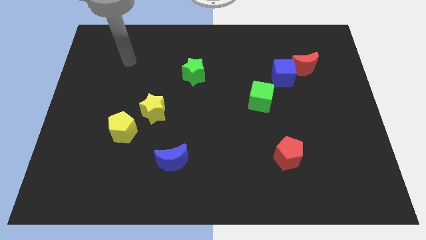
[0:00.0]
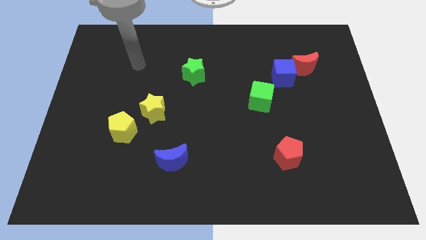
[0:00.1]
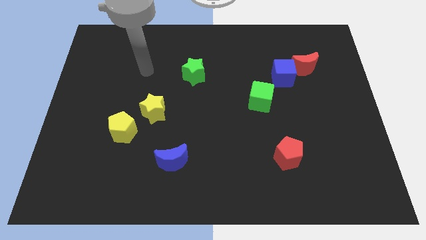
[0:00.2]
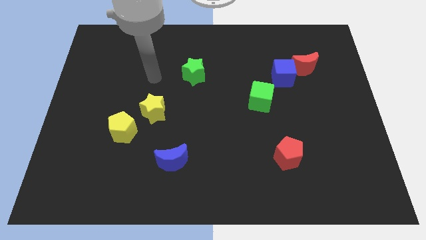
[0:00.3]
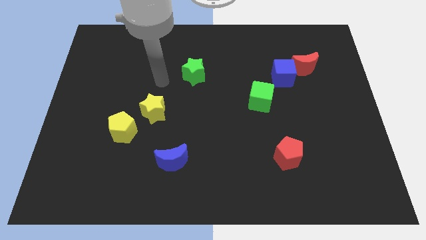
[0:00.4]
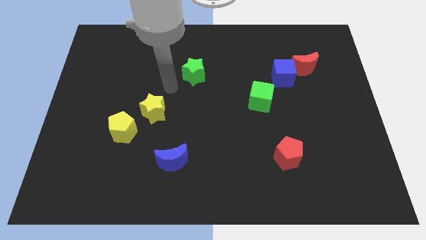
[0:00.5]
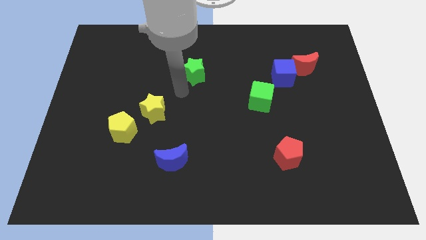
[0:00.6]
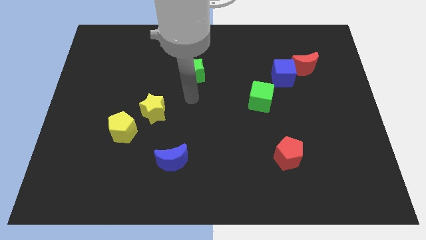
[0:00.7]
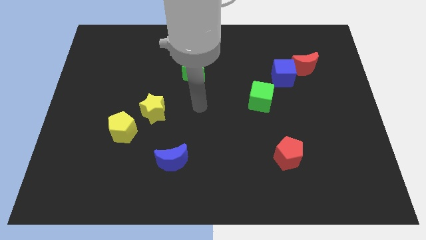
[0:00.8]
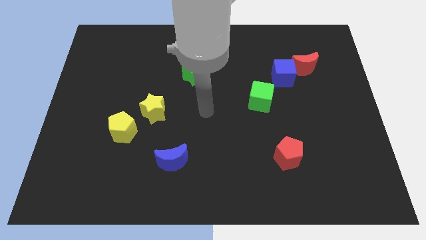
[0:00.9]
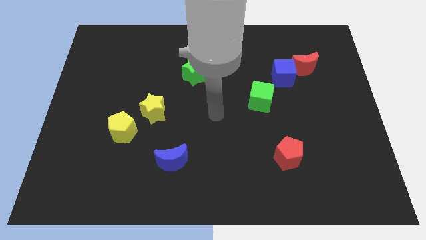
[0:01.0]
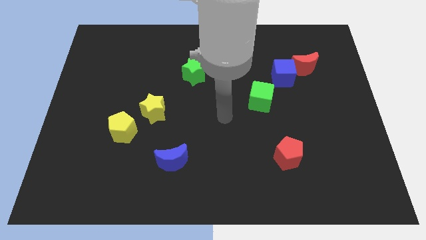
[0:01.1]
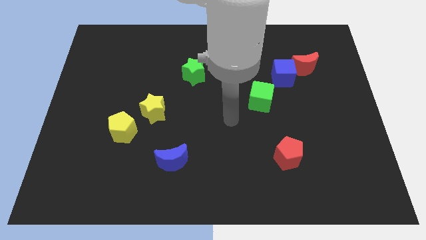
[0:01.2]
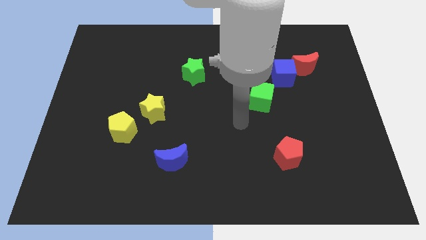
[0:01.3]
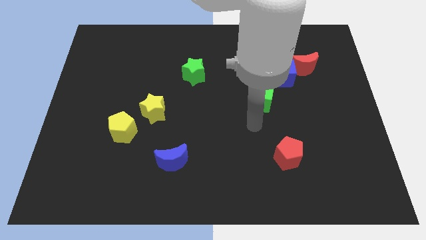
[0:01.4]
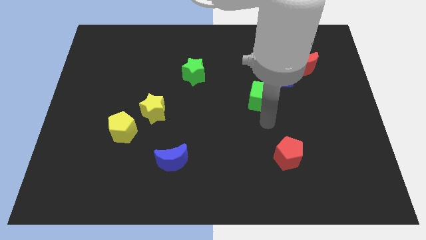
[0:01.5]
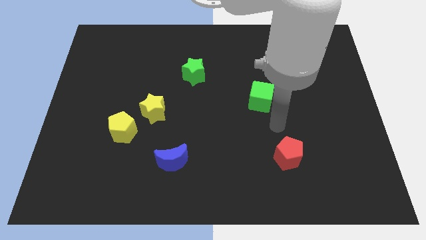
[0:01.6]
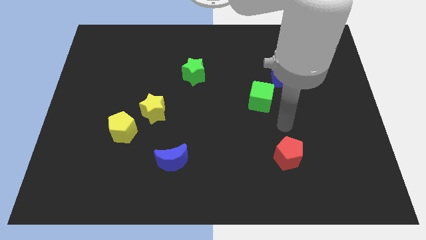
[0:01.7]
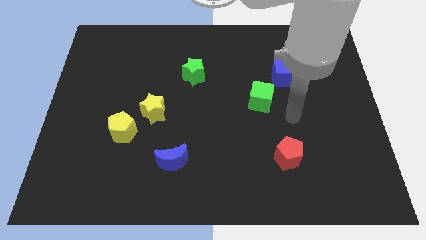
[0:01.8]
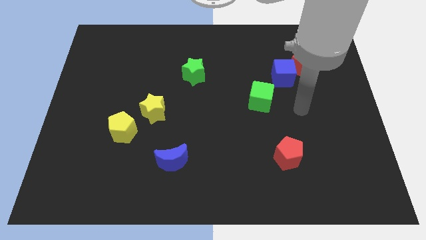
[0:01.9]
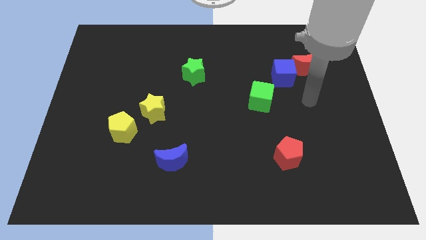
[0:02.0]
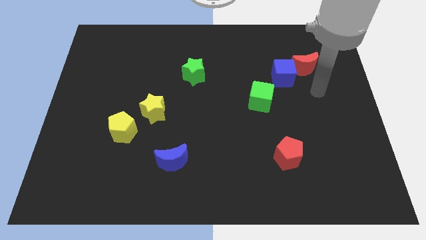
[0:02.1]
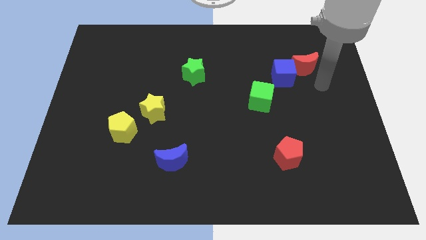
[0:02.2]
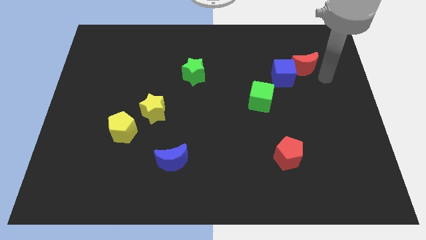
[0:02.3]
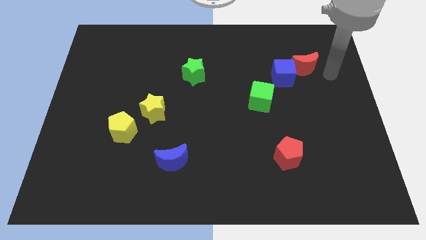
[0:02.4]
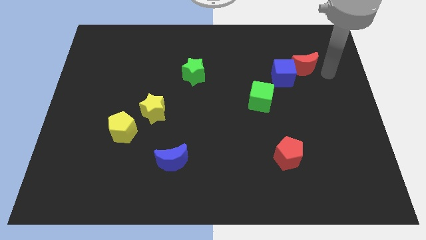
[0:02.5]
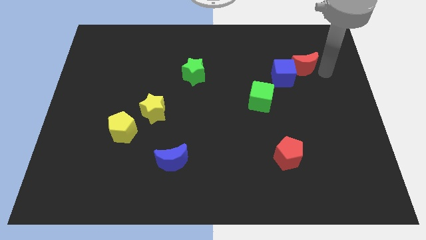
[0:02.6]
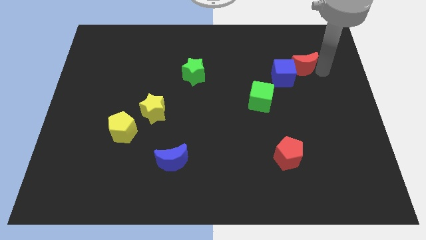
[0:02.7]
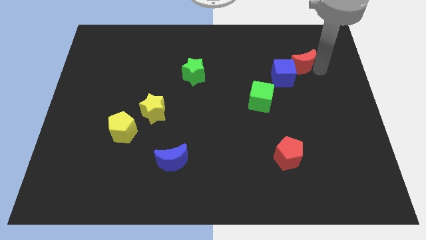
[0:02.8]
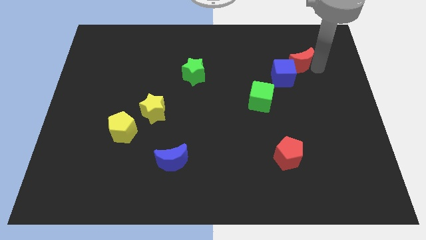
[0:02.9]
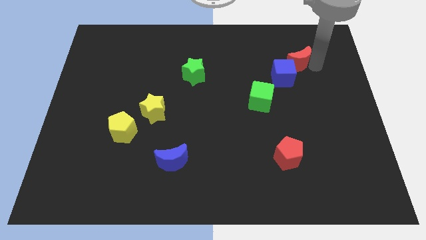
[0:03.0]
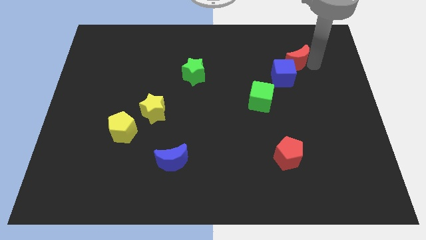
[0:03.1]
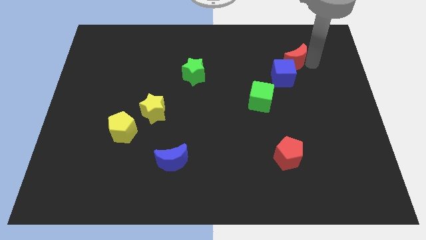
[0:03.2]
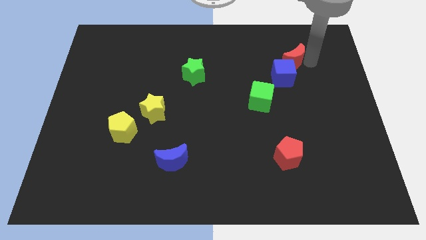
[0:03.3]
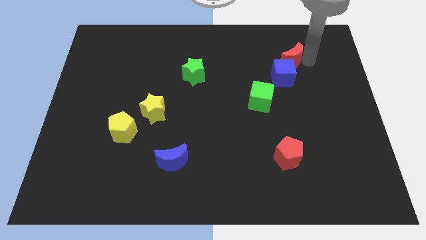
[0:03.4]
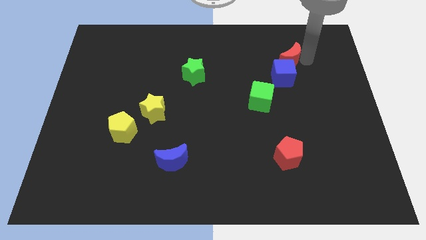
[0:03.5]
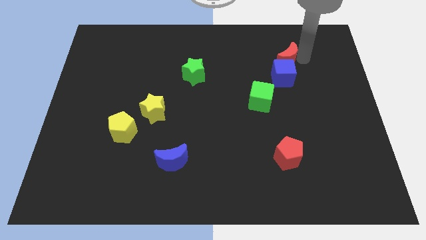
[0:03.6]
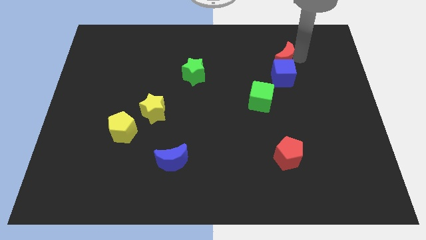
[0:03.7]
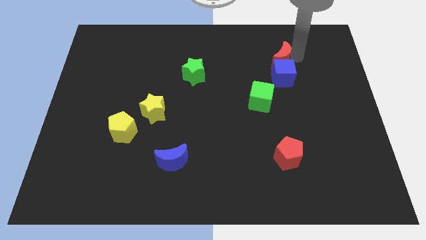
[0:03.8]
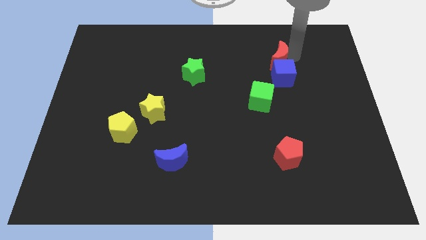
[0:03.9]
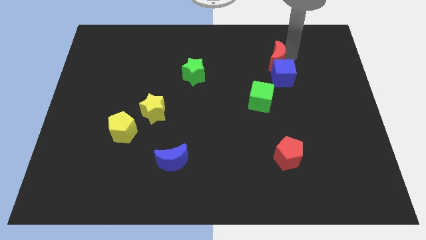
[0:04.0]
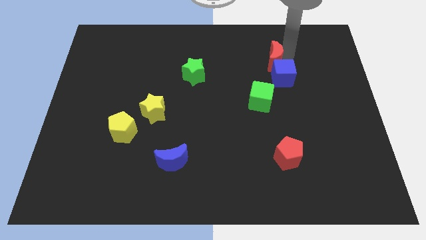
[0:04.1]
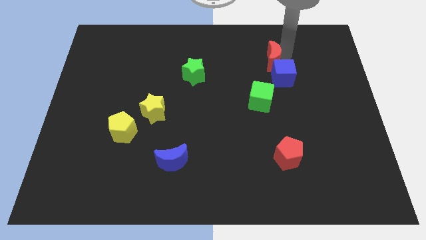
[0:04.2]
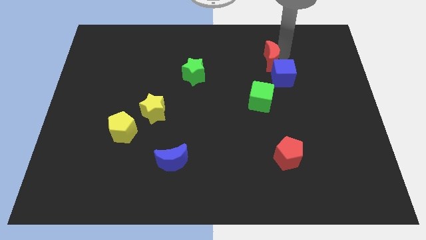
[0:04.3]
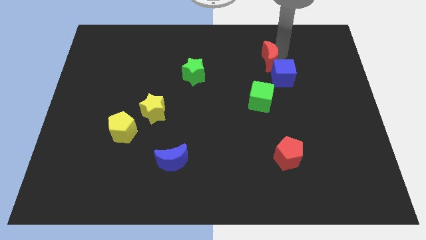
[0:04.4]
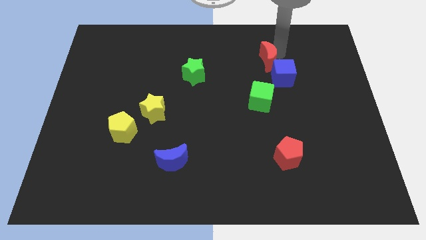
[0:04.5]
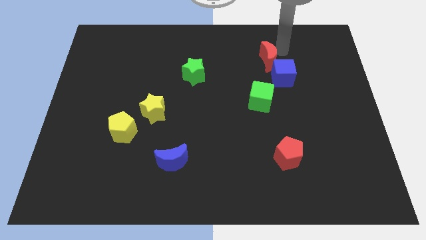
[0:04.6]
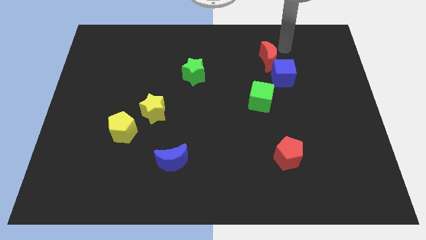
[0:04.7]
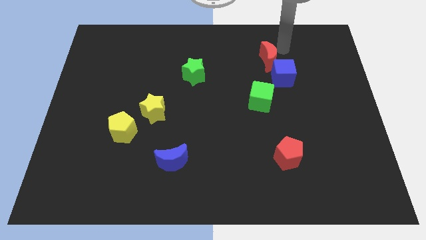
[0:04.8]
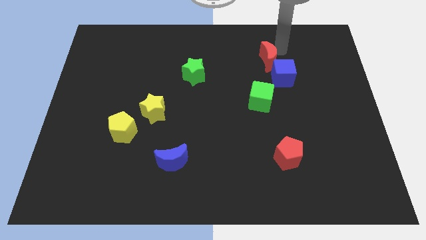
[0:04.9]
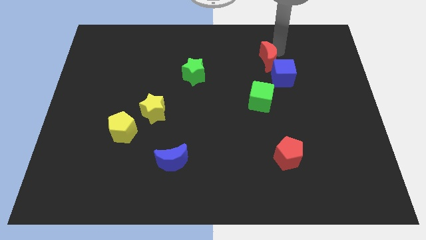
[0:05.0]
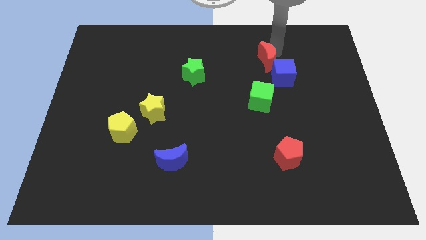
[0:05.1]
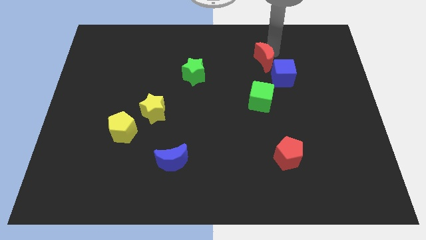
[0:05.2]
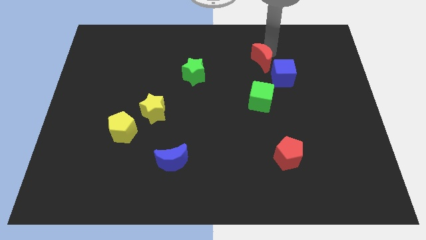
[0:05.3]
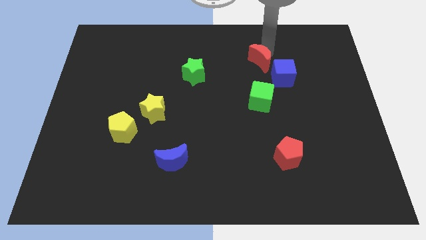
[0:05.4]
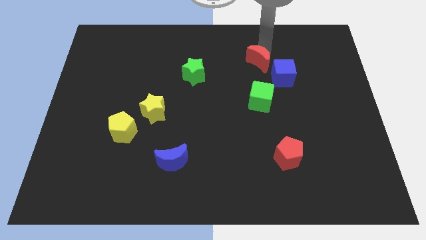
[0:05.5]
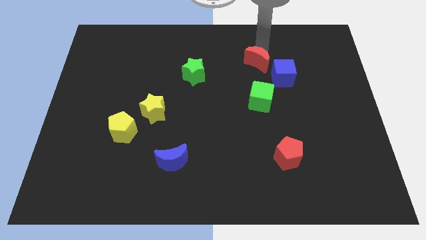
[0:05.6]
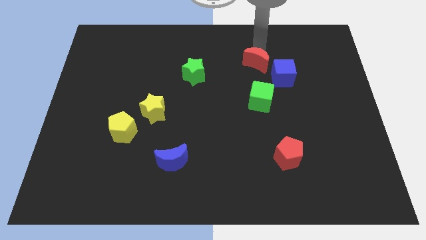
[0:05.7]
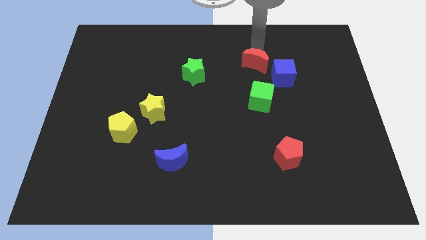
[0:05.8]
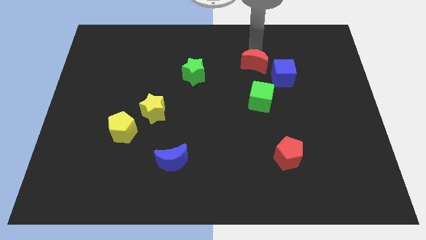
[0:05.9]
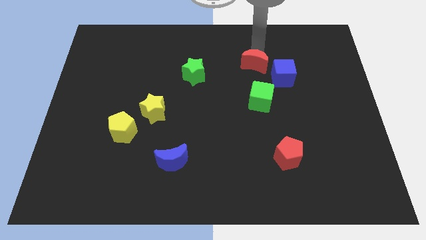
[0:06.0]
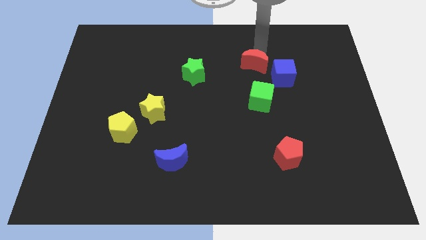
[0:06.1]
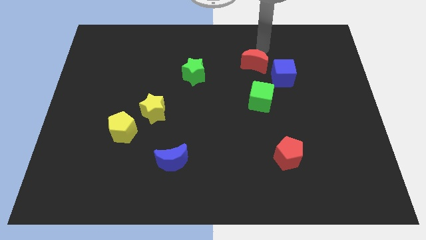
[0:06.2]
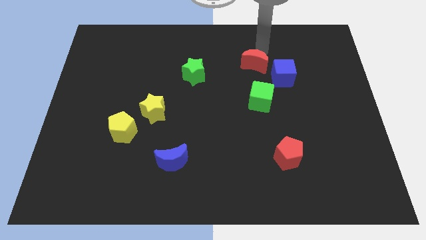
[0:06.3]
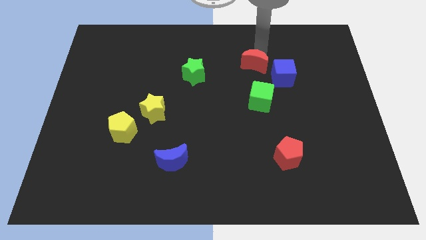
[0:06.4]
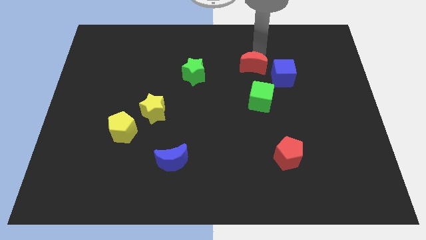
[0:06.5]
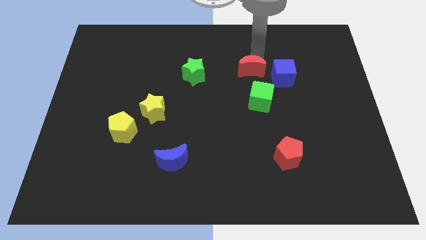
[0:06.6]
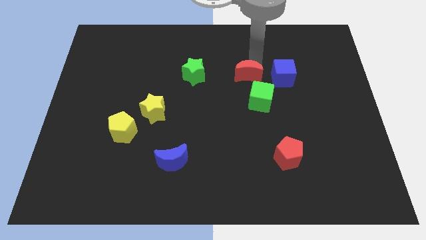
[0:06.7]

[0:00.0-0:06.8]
put the red moon to the top left side of the green cube
